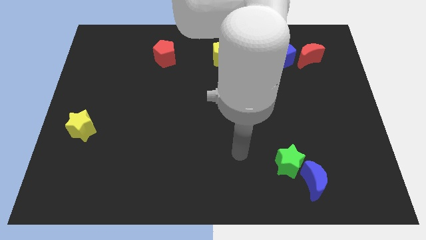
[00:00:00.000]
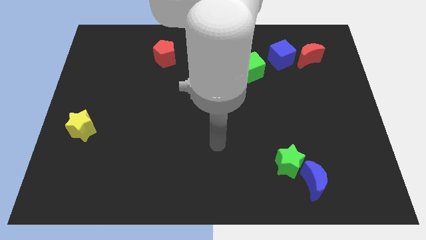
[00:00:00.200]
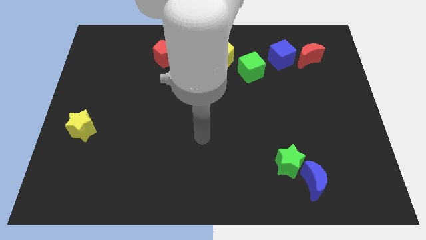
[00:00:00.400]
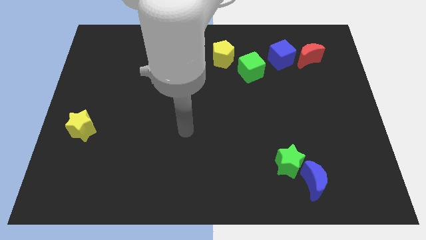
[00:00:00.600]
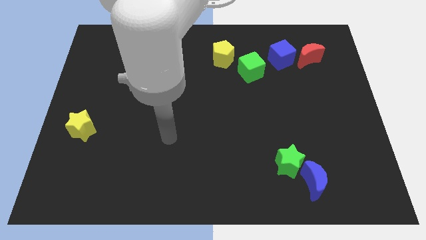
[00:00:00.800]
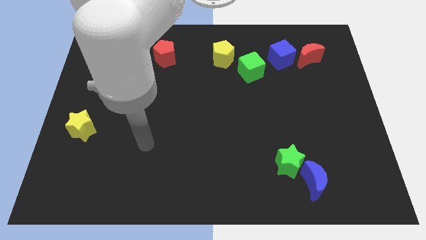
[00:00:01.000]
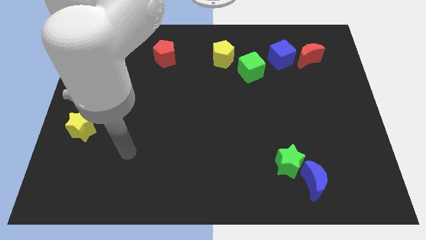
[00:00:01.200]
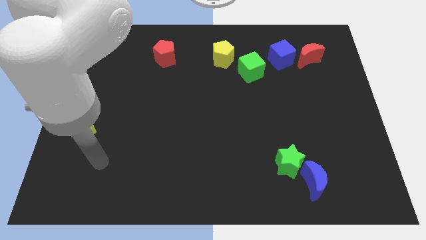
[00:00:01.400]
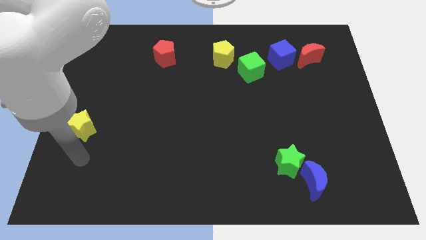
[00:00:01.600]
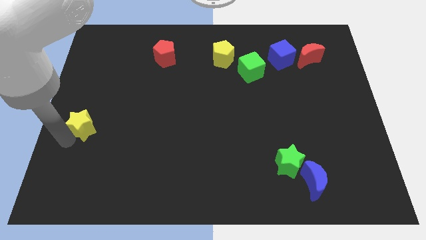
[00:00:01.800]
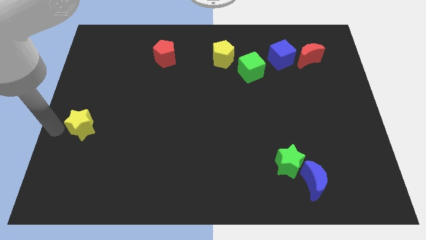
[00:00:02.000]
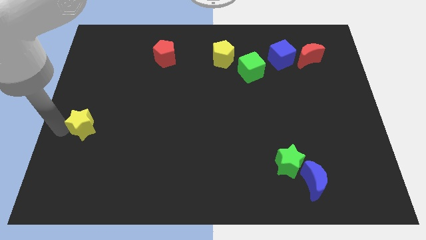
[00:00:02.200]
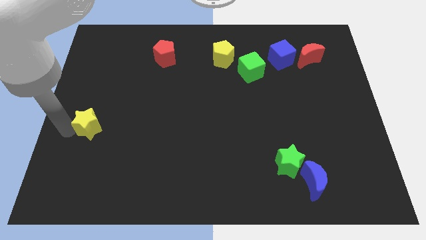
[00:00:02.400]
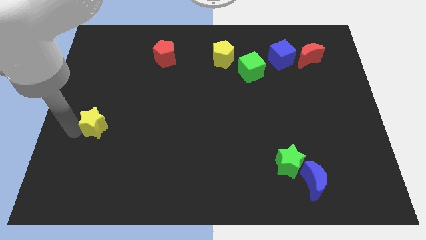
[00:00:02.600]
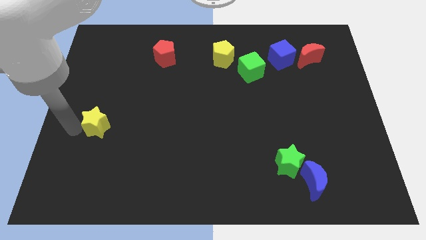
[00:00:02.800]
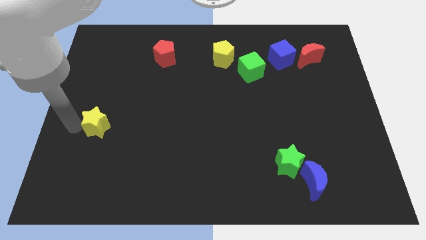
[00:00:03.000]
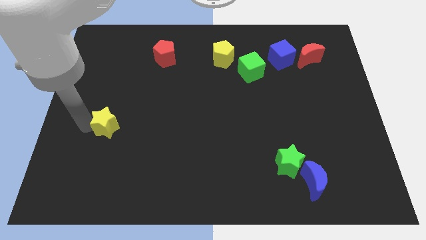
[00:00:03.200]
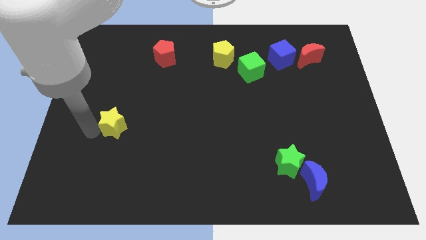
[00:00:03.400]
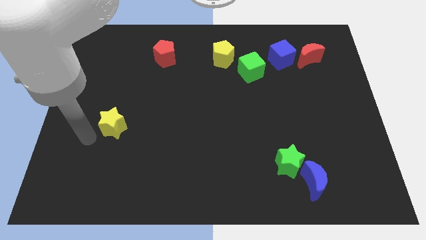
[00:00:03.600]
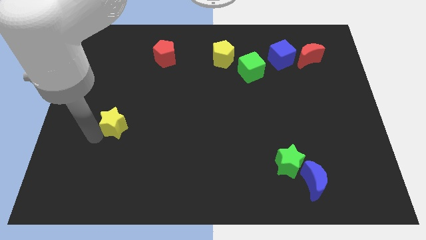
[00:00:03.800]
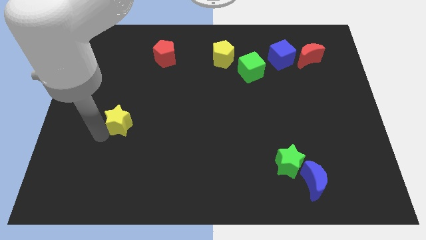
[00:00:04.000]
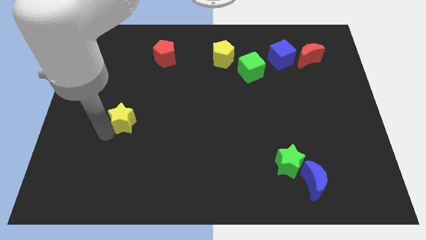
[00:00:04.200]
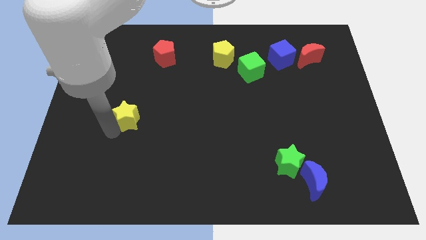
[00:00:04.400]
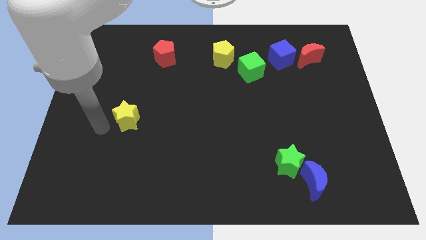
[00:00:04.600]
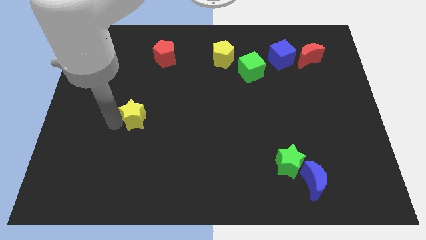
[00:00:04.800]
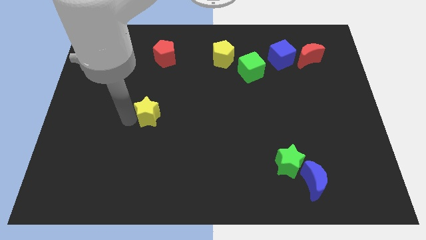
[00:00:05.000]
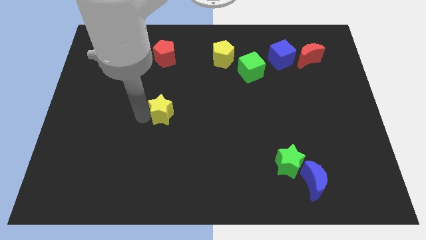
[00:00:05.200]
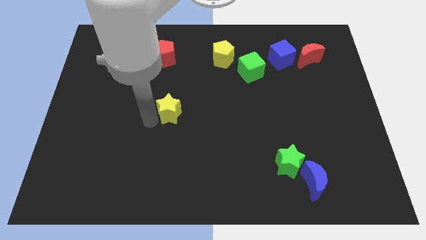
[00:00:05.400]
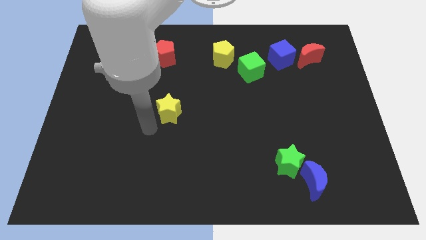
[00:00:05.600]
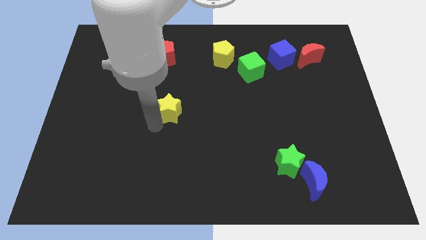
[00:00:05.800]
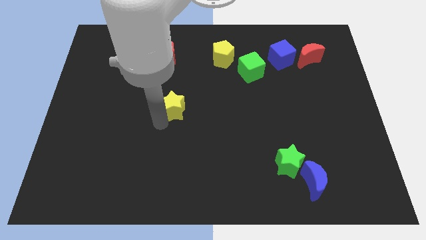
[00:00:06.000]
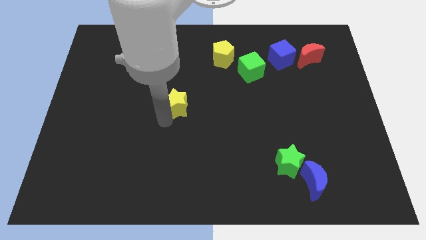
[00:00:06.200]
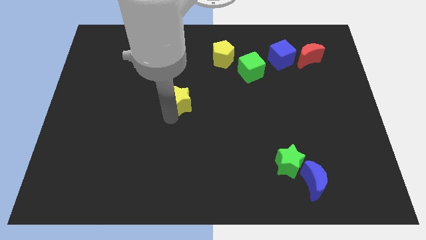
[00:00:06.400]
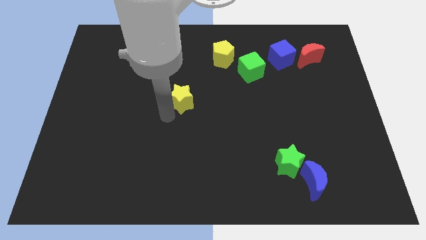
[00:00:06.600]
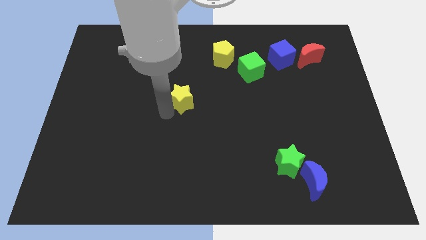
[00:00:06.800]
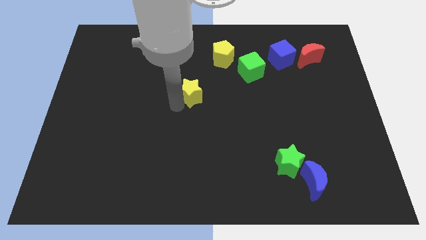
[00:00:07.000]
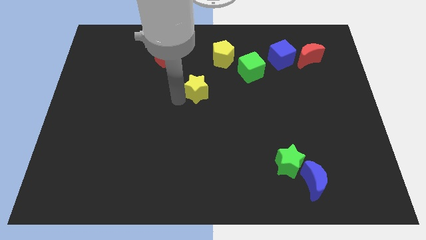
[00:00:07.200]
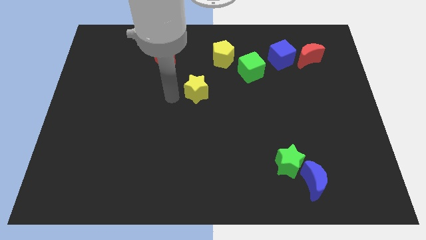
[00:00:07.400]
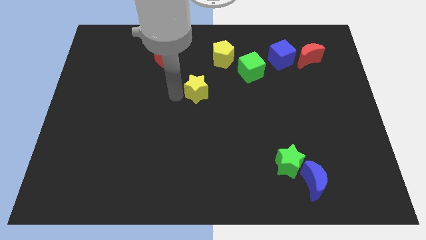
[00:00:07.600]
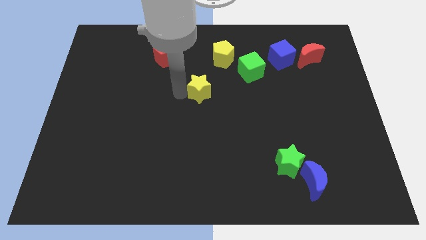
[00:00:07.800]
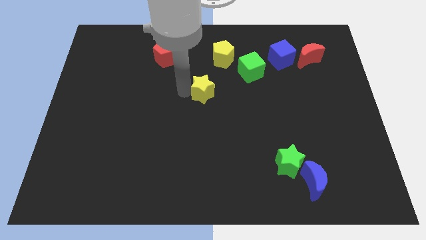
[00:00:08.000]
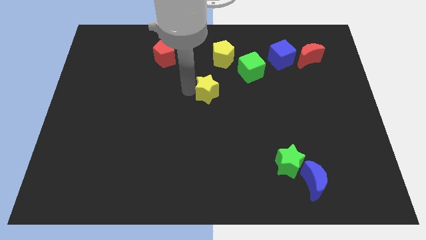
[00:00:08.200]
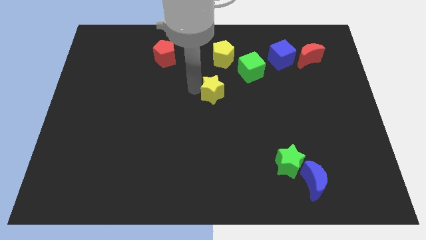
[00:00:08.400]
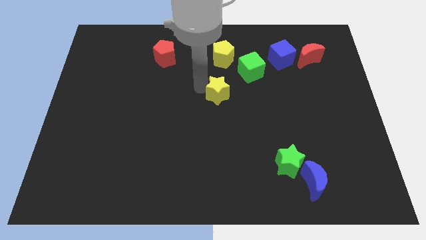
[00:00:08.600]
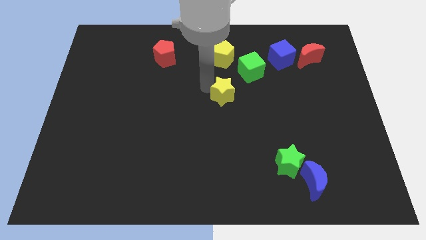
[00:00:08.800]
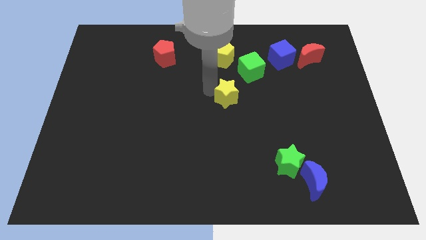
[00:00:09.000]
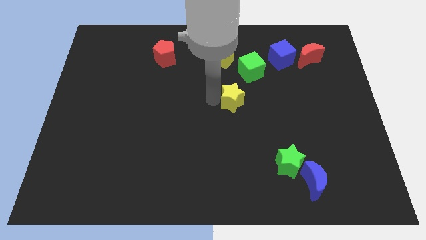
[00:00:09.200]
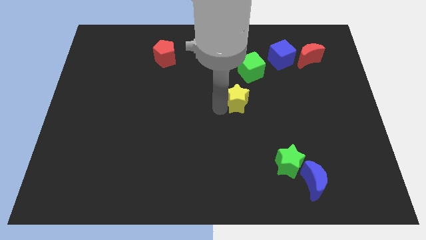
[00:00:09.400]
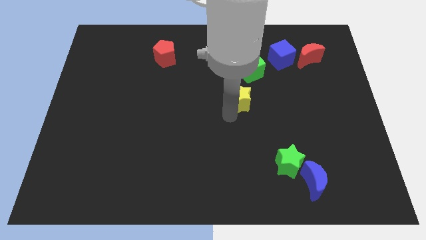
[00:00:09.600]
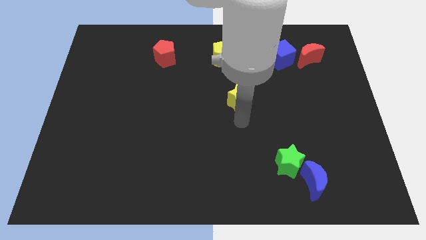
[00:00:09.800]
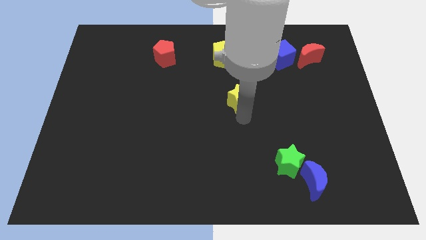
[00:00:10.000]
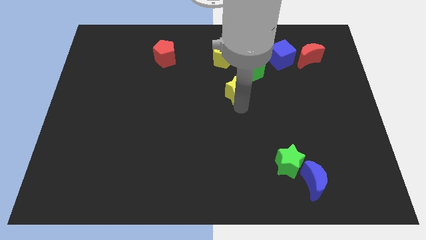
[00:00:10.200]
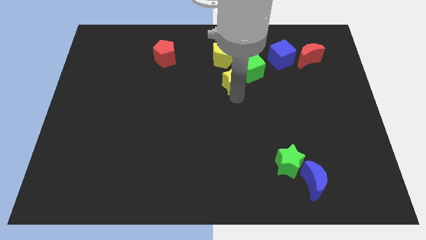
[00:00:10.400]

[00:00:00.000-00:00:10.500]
move the yellow star towards the green cube

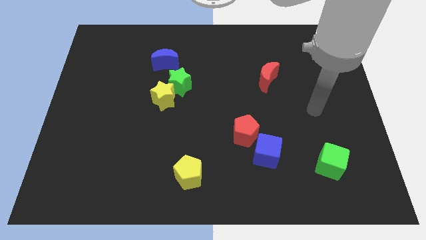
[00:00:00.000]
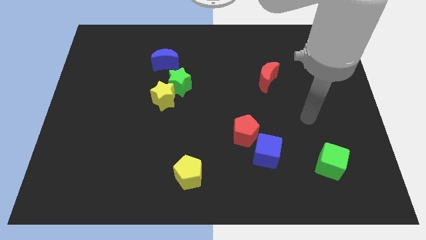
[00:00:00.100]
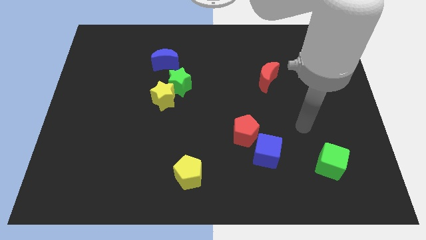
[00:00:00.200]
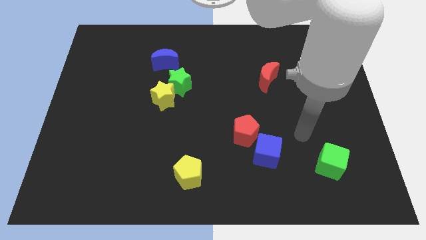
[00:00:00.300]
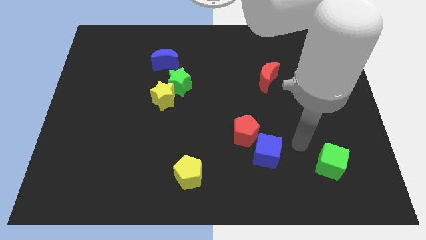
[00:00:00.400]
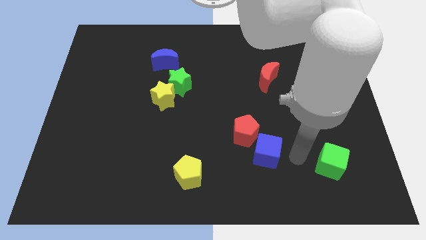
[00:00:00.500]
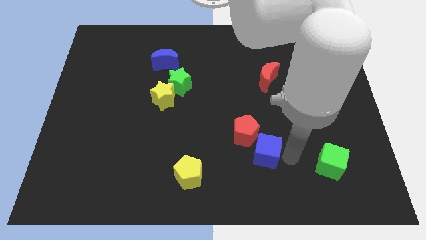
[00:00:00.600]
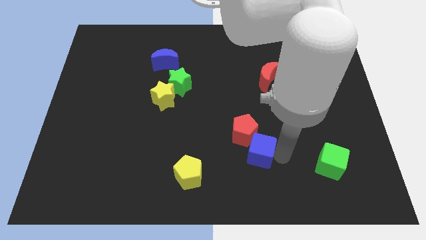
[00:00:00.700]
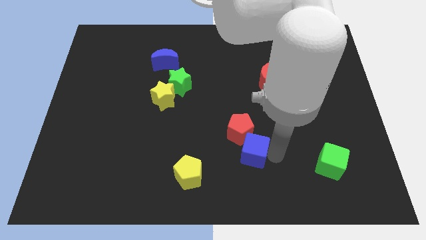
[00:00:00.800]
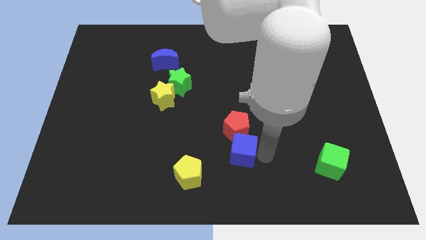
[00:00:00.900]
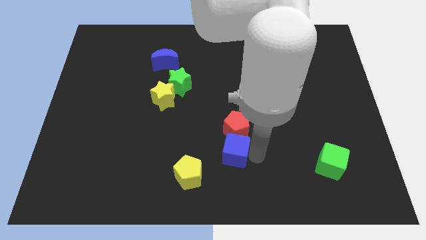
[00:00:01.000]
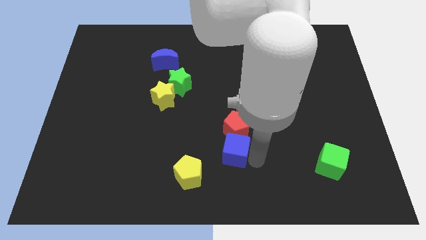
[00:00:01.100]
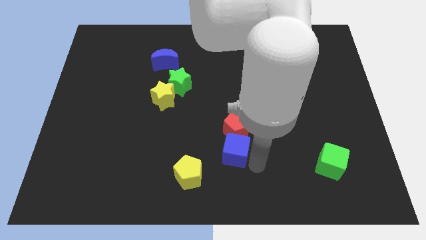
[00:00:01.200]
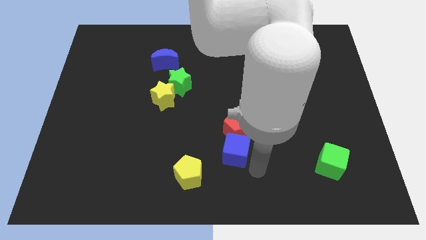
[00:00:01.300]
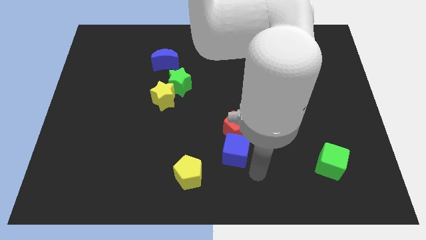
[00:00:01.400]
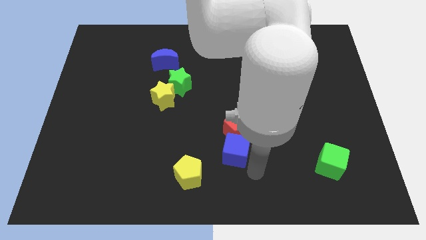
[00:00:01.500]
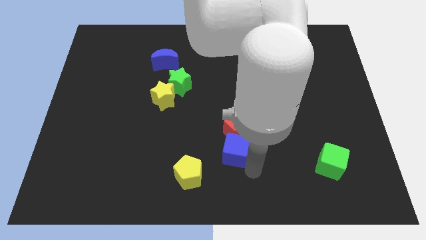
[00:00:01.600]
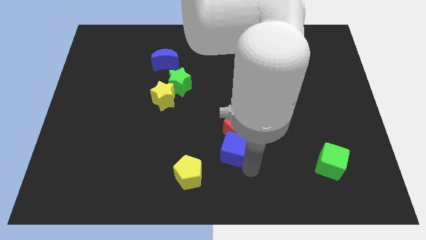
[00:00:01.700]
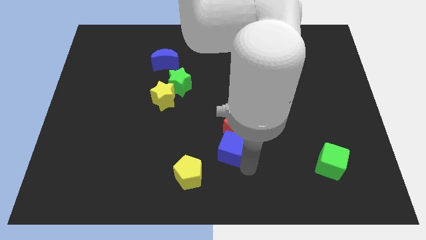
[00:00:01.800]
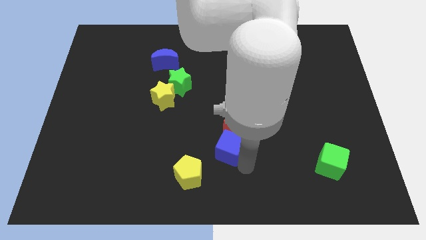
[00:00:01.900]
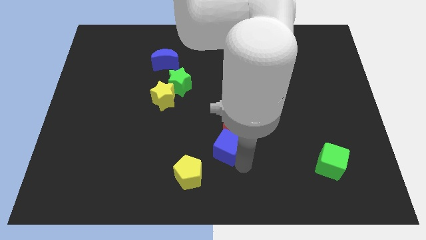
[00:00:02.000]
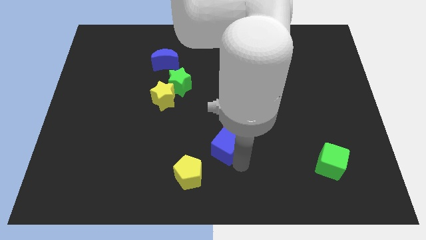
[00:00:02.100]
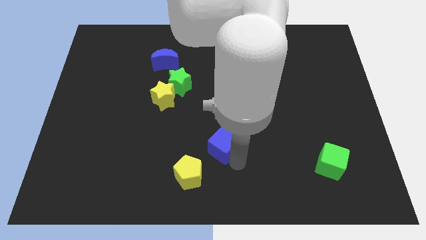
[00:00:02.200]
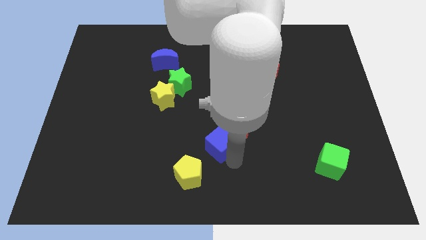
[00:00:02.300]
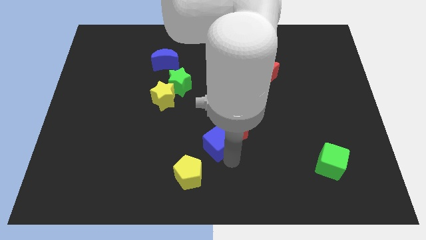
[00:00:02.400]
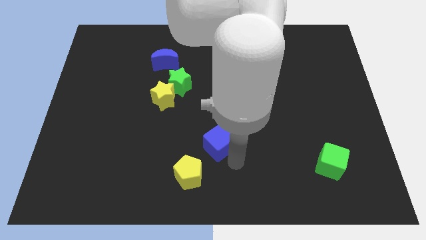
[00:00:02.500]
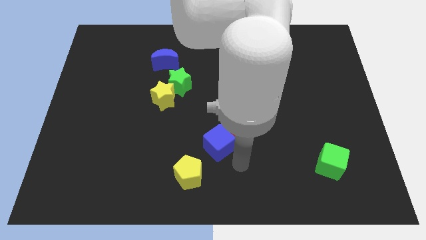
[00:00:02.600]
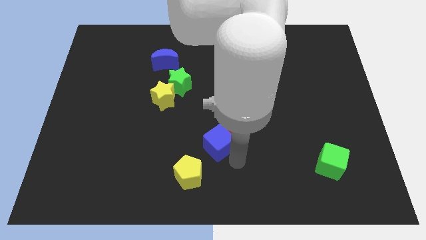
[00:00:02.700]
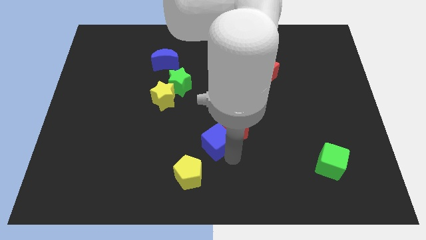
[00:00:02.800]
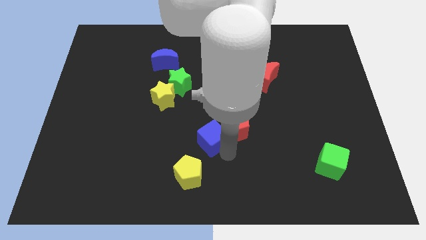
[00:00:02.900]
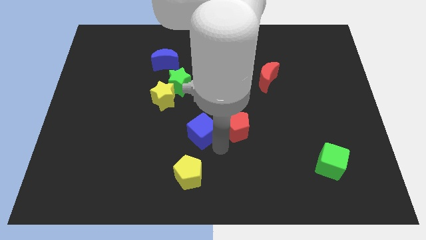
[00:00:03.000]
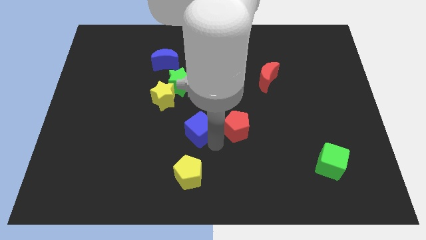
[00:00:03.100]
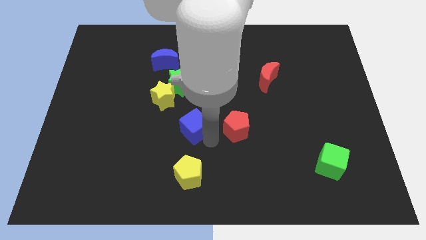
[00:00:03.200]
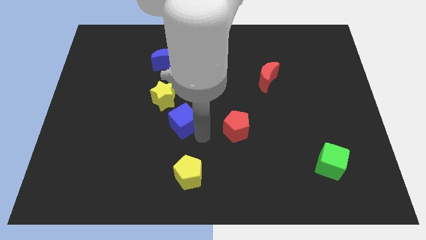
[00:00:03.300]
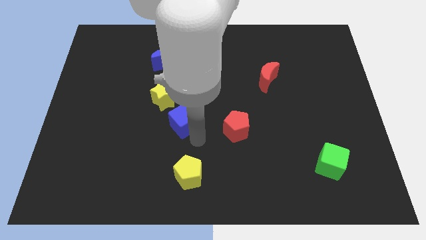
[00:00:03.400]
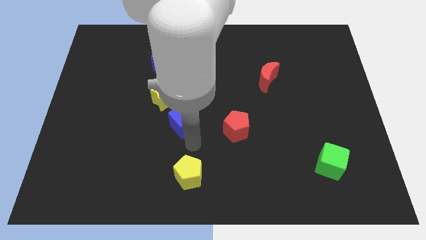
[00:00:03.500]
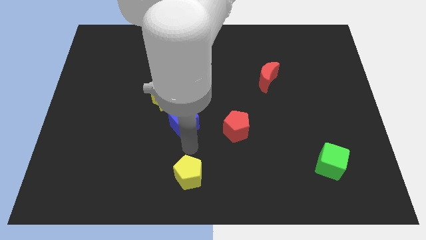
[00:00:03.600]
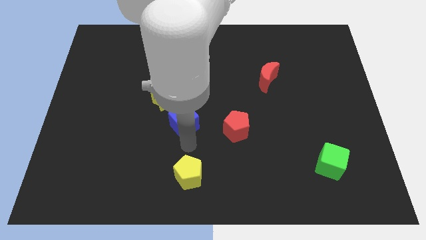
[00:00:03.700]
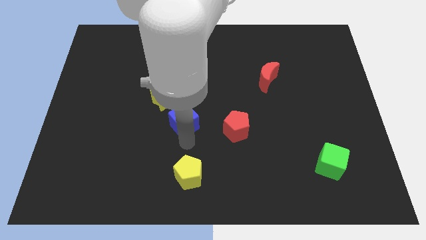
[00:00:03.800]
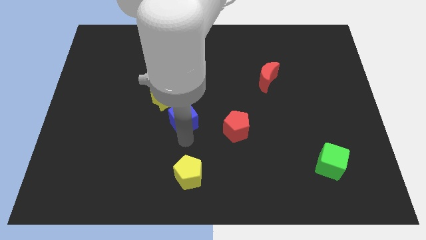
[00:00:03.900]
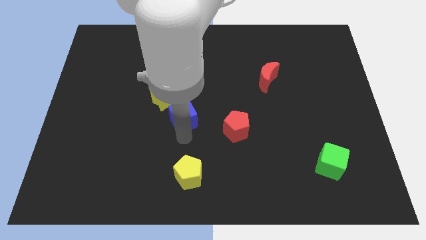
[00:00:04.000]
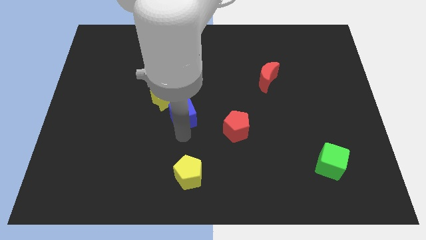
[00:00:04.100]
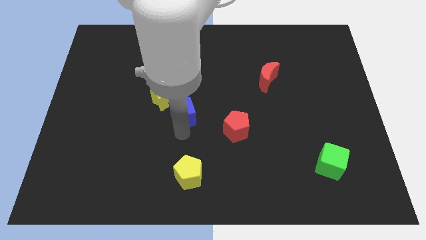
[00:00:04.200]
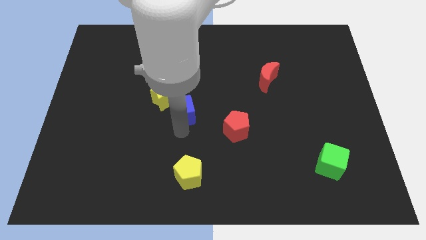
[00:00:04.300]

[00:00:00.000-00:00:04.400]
slide the blue cube towards the yellow star
